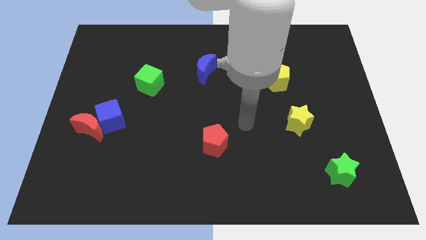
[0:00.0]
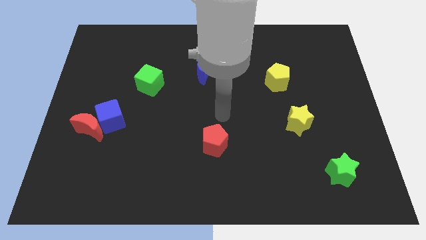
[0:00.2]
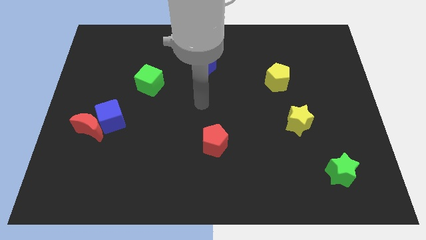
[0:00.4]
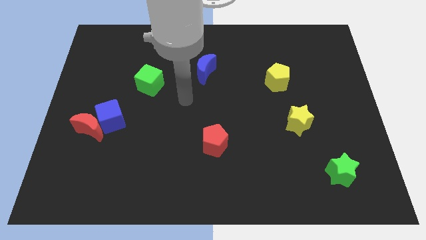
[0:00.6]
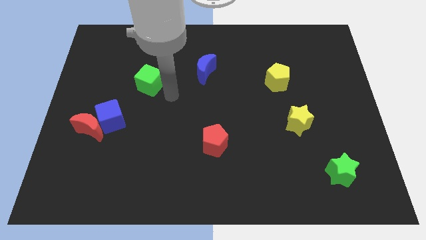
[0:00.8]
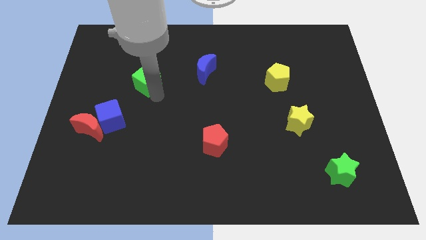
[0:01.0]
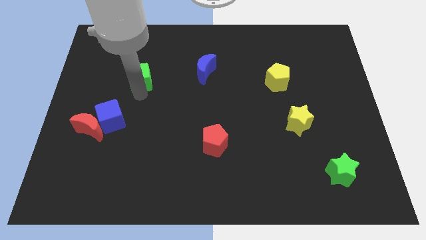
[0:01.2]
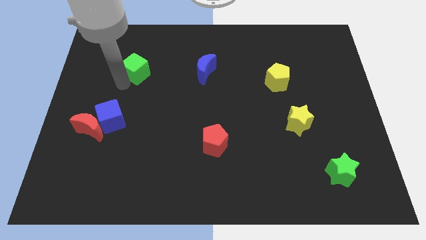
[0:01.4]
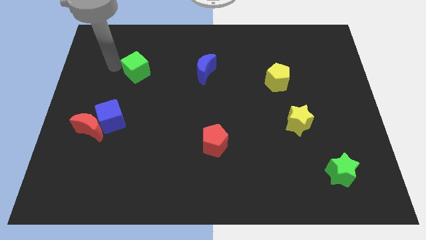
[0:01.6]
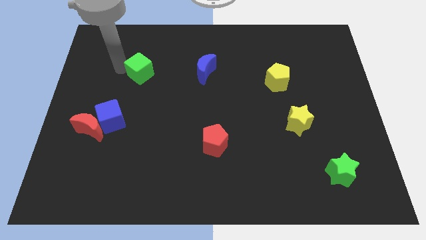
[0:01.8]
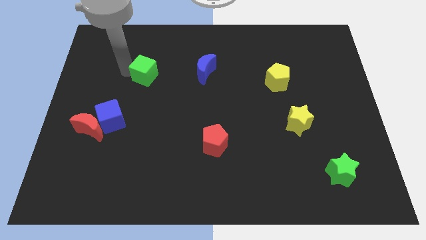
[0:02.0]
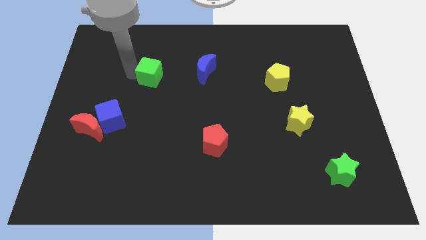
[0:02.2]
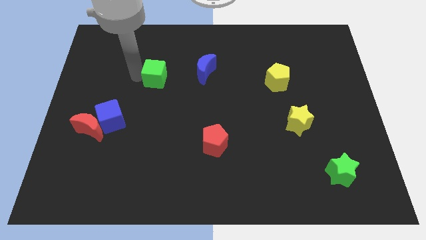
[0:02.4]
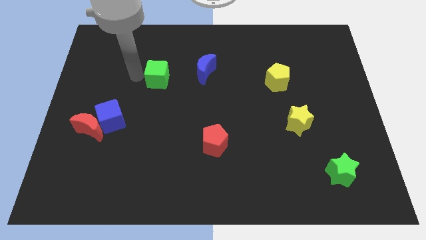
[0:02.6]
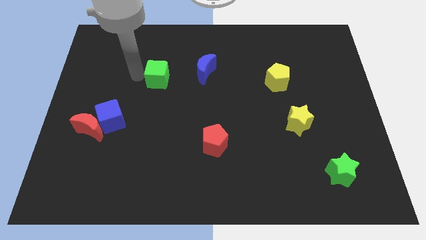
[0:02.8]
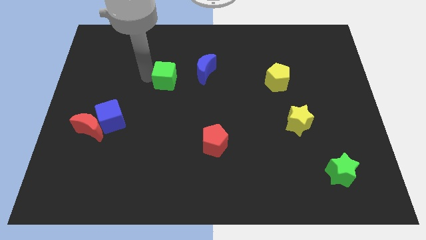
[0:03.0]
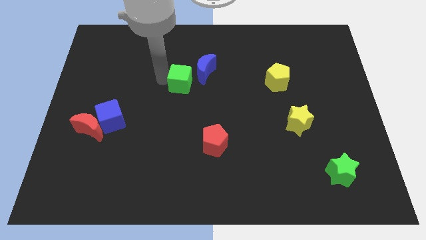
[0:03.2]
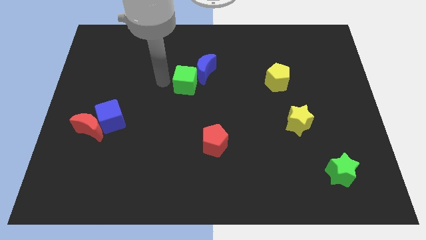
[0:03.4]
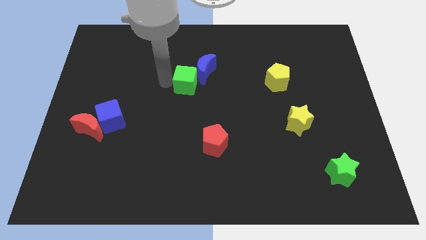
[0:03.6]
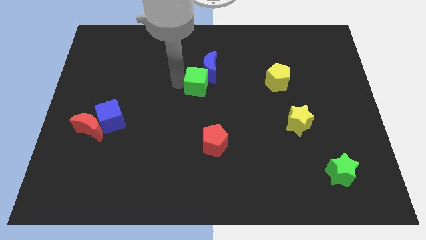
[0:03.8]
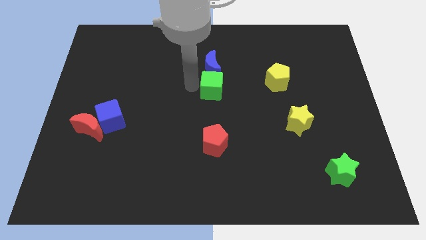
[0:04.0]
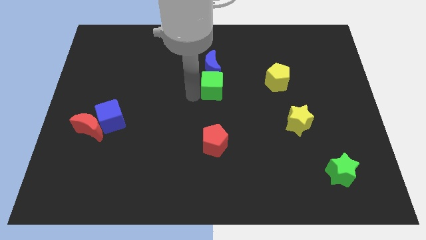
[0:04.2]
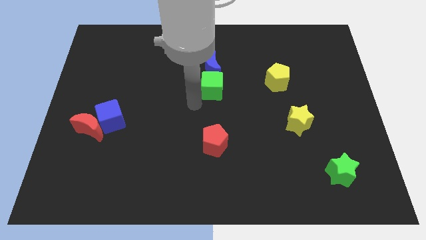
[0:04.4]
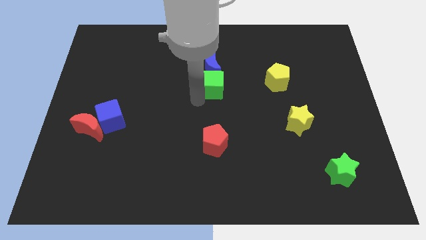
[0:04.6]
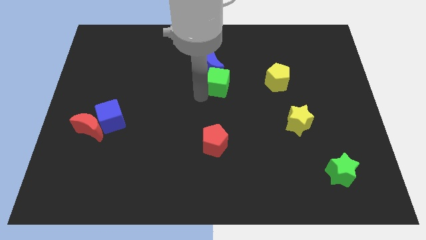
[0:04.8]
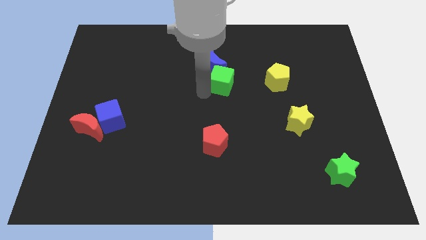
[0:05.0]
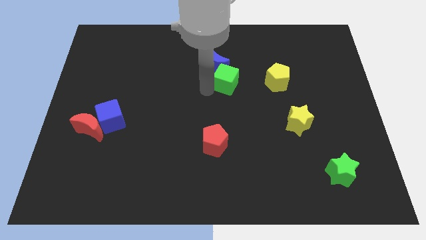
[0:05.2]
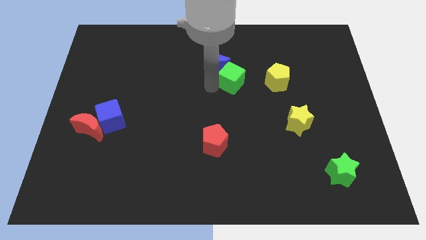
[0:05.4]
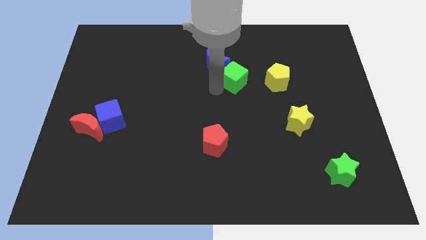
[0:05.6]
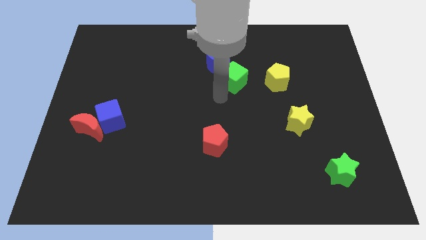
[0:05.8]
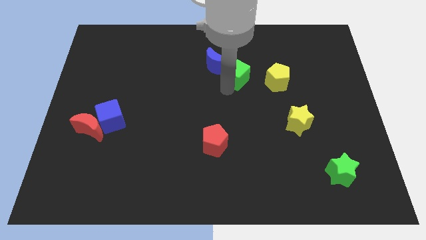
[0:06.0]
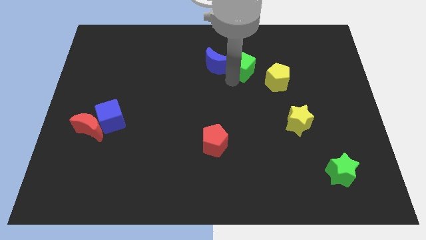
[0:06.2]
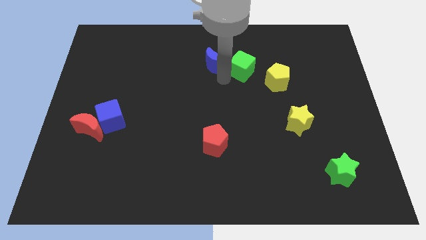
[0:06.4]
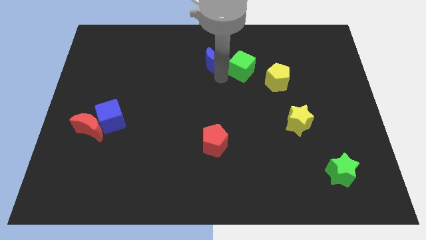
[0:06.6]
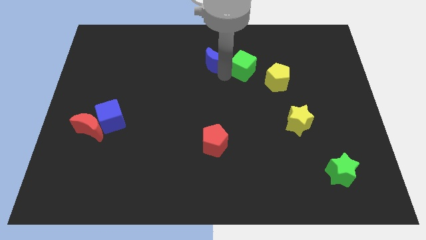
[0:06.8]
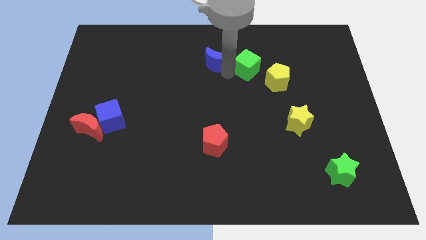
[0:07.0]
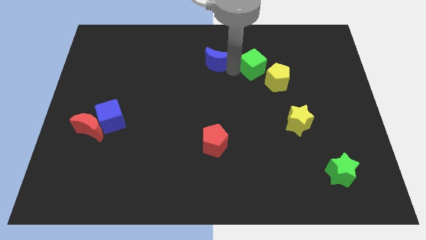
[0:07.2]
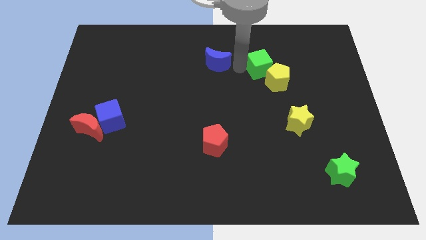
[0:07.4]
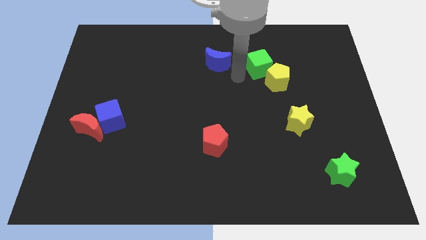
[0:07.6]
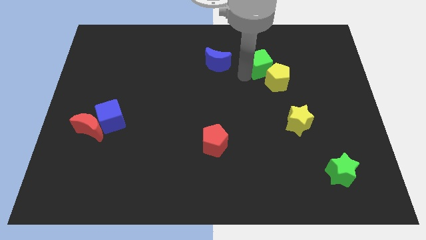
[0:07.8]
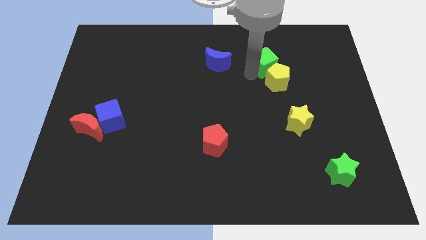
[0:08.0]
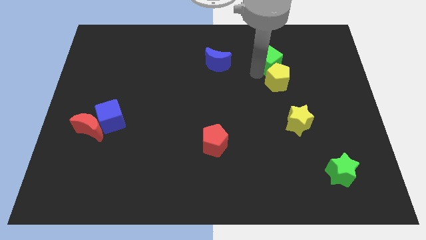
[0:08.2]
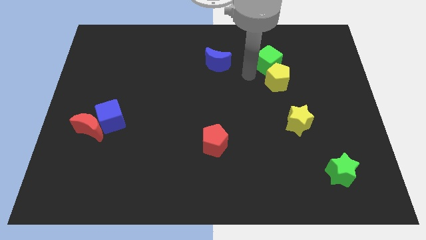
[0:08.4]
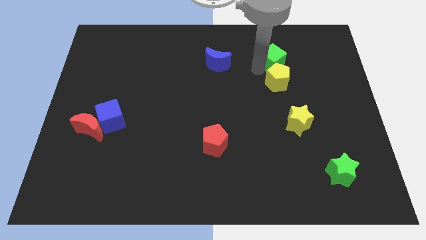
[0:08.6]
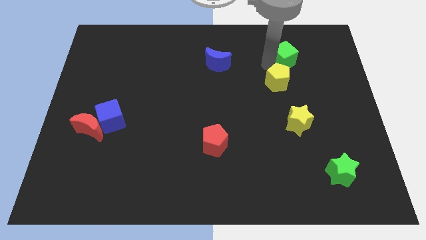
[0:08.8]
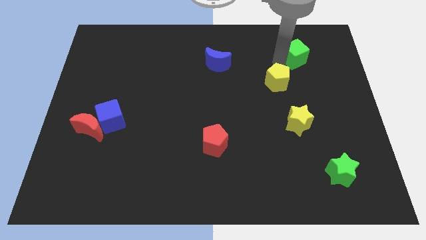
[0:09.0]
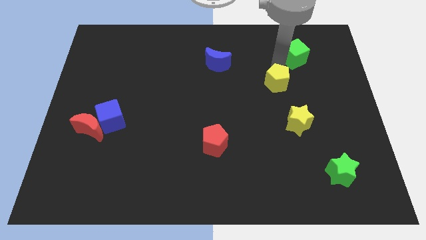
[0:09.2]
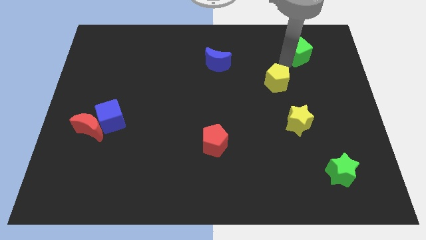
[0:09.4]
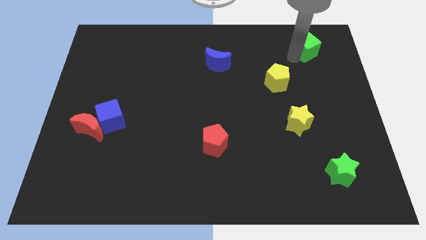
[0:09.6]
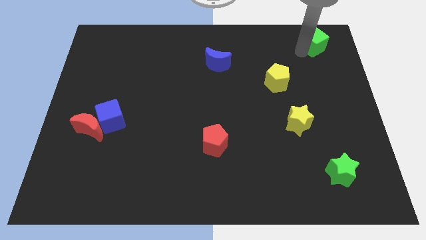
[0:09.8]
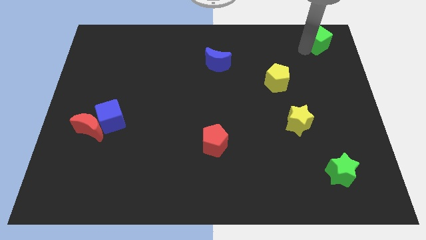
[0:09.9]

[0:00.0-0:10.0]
move the green cube to the top right

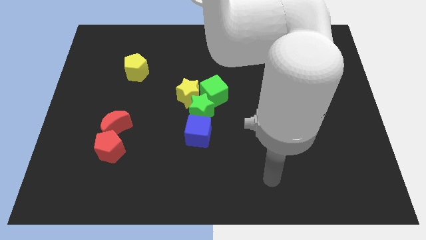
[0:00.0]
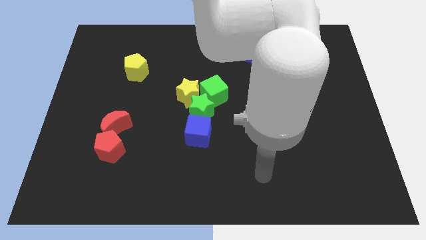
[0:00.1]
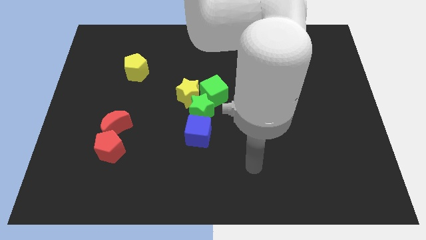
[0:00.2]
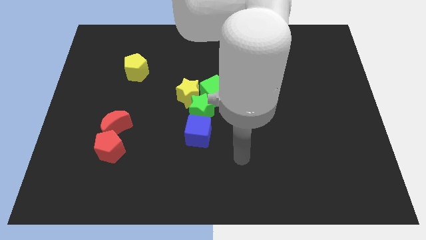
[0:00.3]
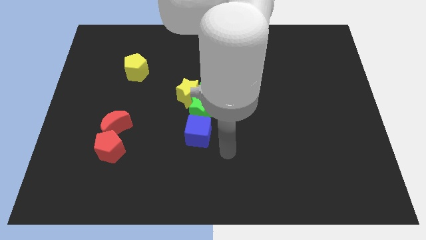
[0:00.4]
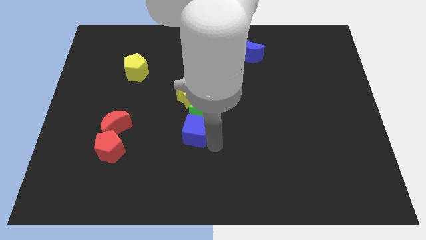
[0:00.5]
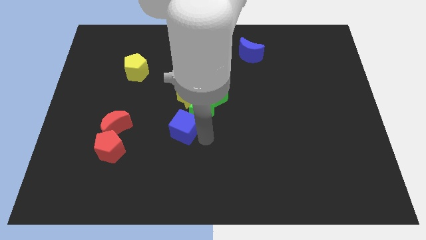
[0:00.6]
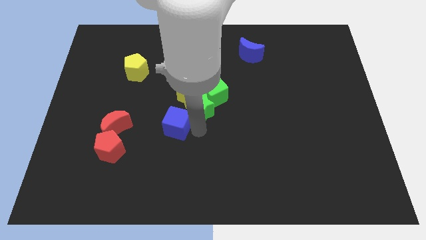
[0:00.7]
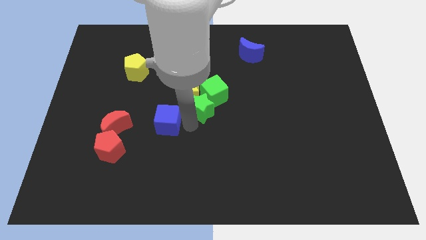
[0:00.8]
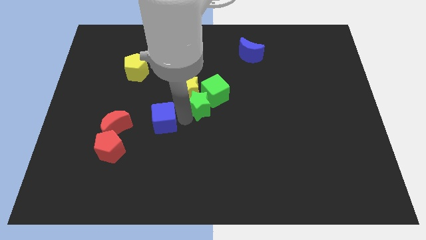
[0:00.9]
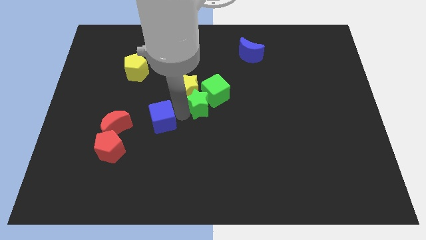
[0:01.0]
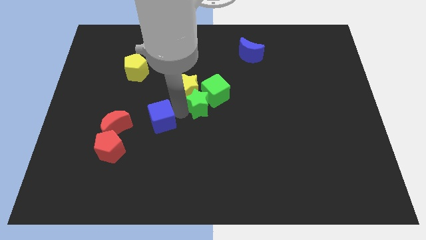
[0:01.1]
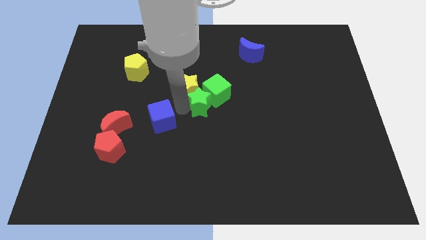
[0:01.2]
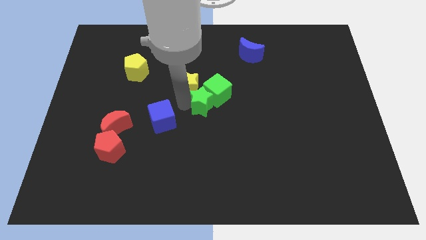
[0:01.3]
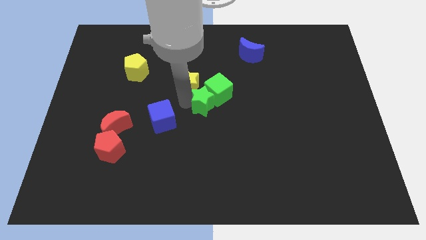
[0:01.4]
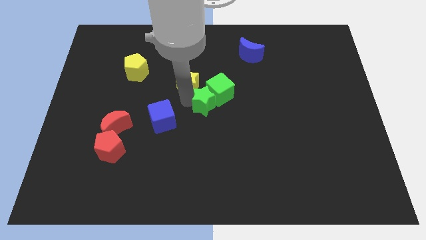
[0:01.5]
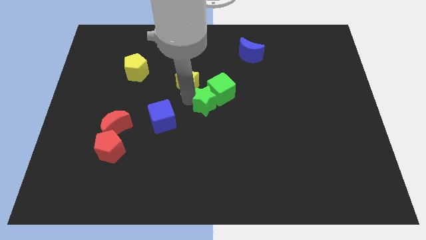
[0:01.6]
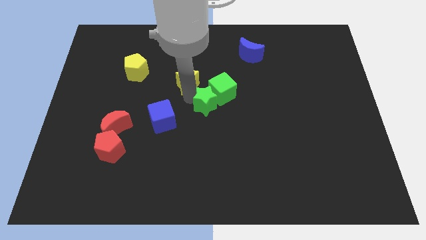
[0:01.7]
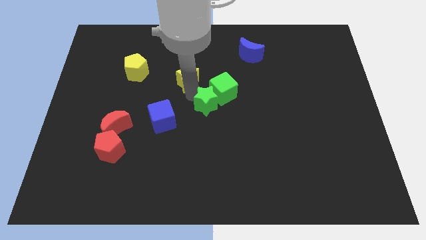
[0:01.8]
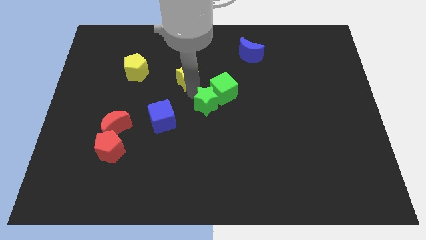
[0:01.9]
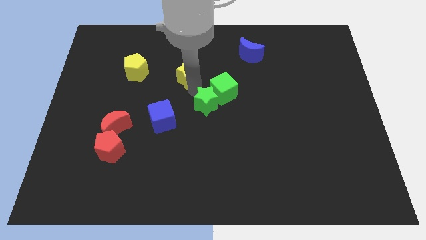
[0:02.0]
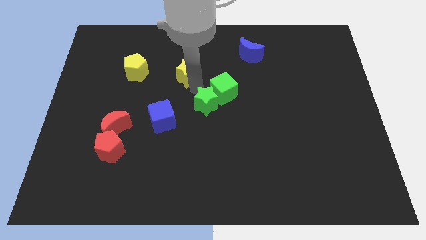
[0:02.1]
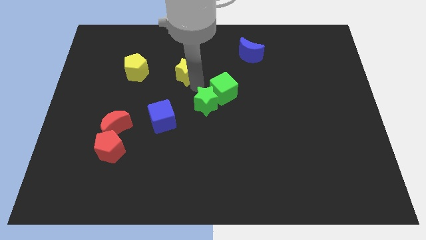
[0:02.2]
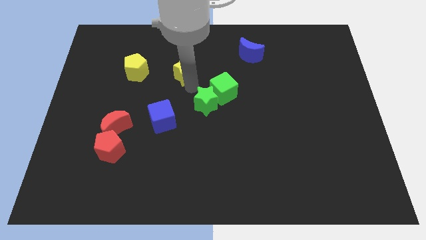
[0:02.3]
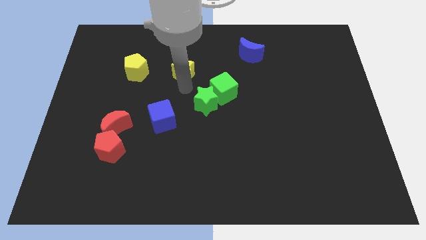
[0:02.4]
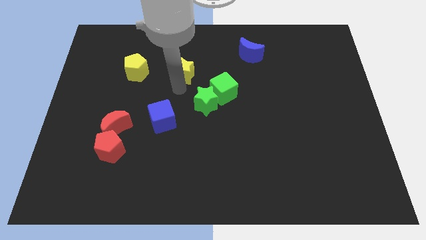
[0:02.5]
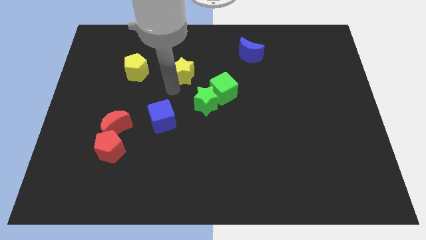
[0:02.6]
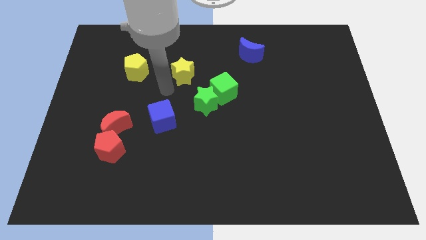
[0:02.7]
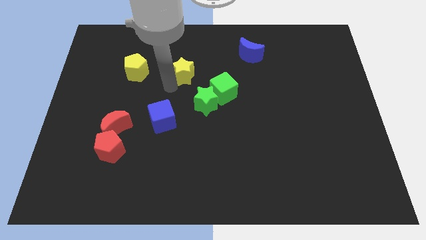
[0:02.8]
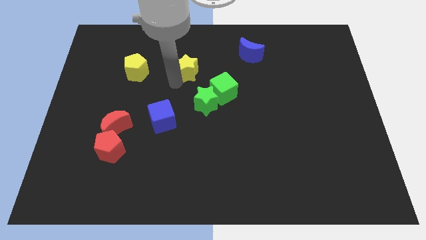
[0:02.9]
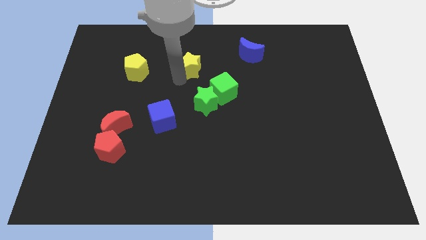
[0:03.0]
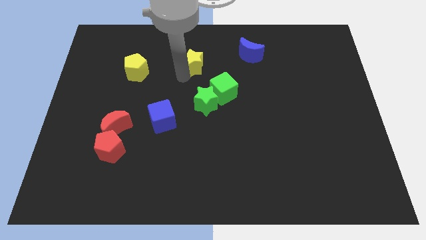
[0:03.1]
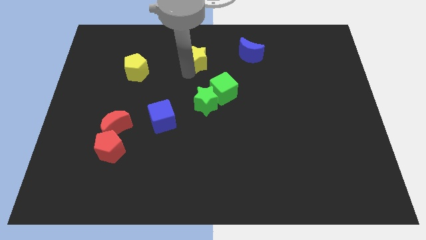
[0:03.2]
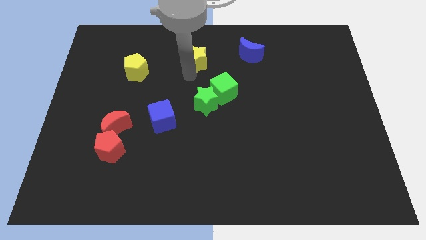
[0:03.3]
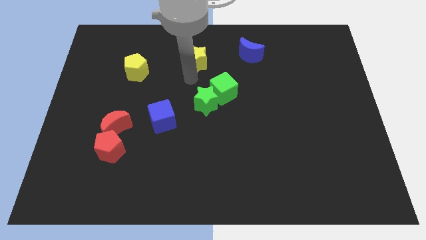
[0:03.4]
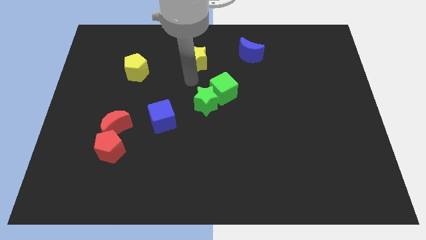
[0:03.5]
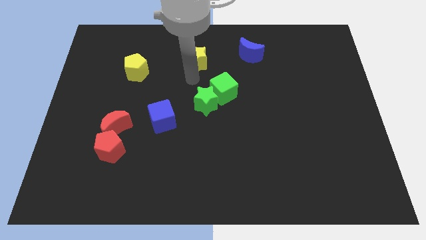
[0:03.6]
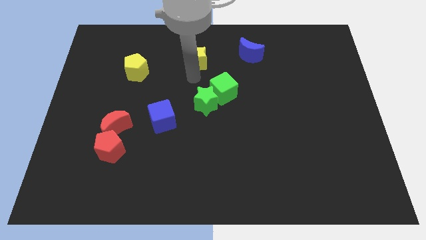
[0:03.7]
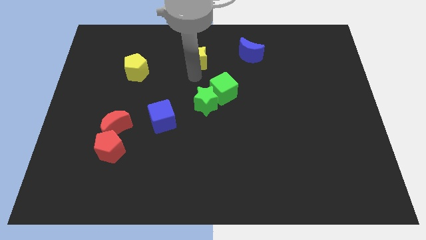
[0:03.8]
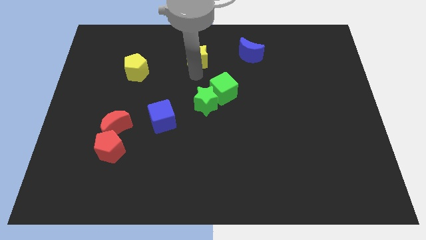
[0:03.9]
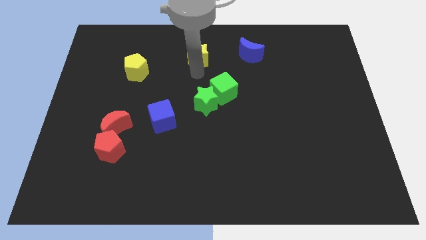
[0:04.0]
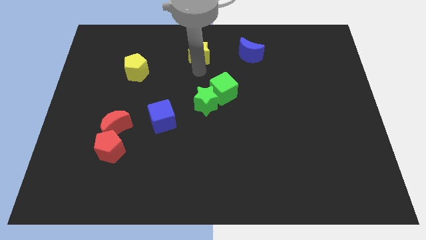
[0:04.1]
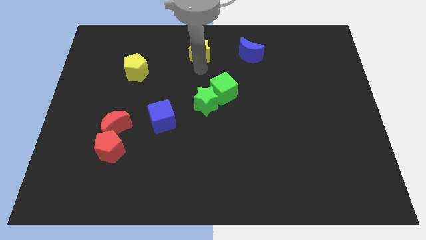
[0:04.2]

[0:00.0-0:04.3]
slide the yellow star to the top side
